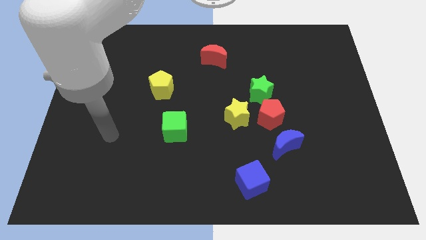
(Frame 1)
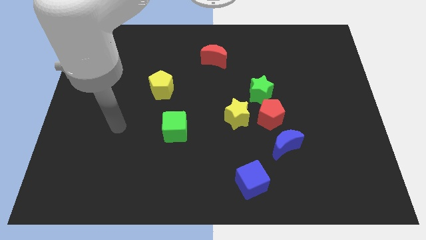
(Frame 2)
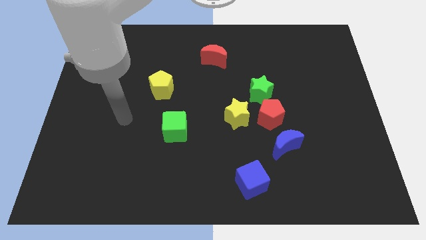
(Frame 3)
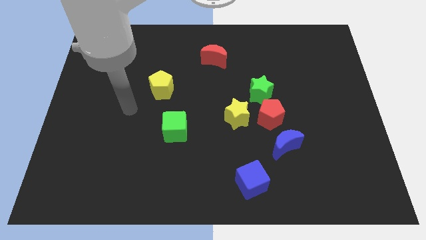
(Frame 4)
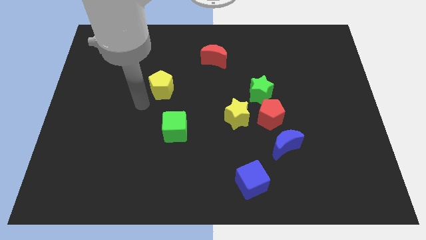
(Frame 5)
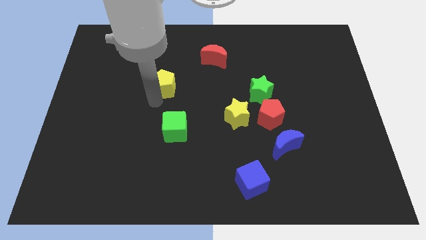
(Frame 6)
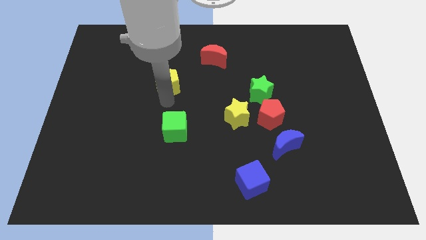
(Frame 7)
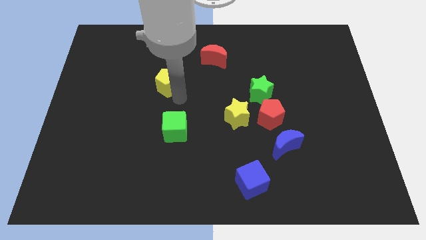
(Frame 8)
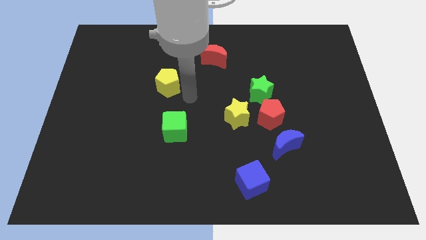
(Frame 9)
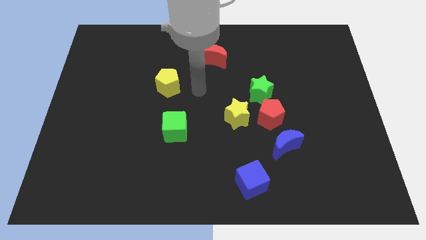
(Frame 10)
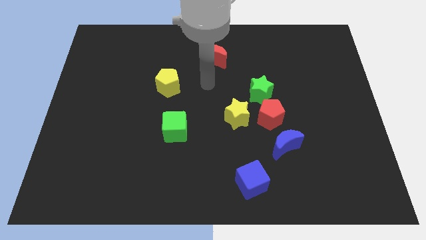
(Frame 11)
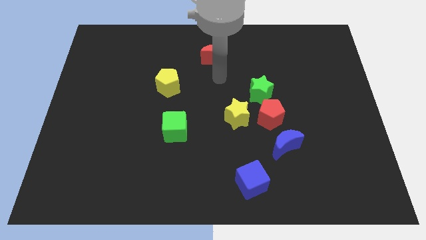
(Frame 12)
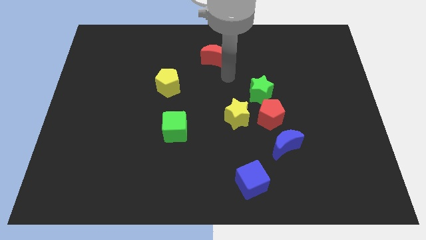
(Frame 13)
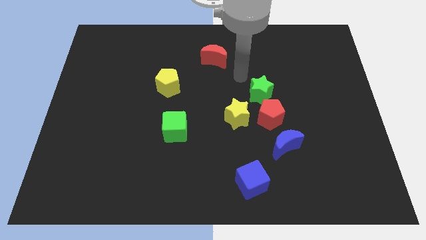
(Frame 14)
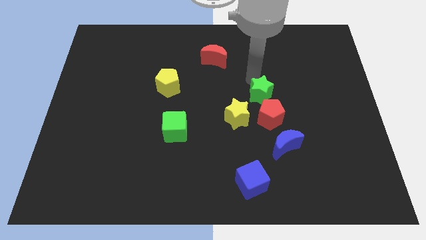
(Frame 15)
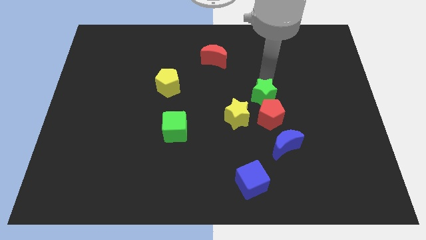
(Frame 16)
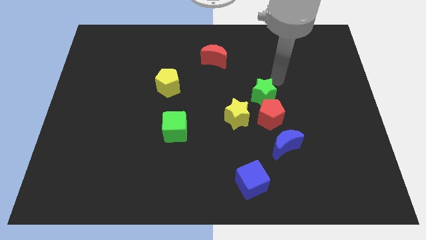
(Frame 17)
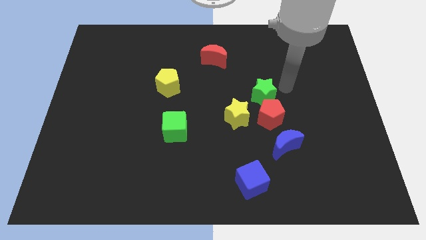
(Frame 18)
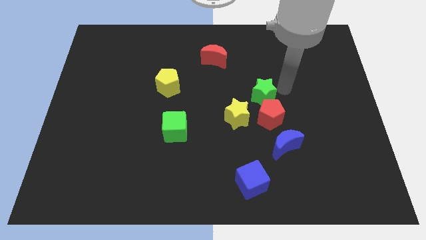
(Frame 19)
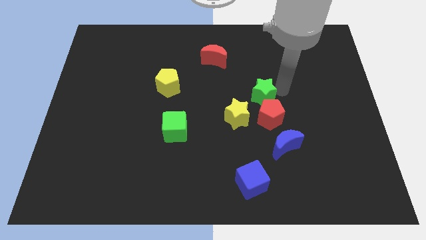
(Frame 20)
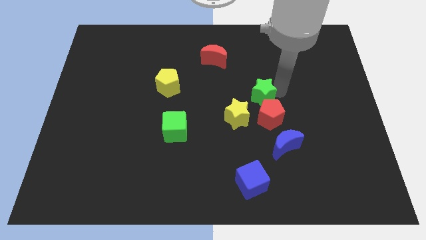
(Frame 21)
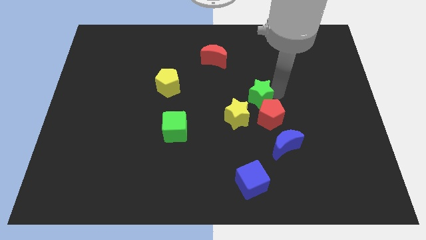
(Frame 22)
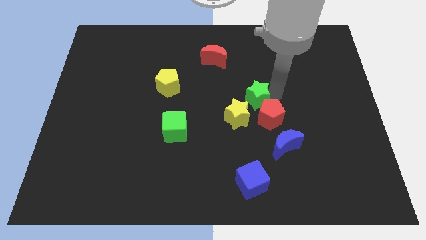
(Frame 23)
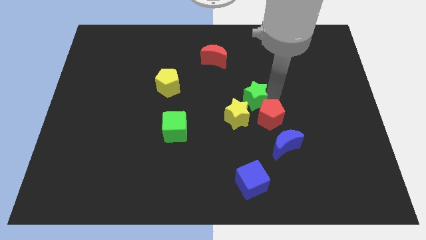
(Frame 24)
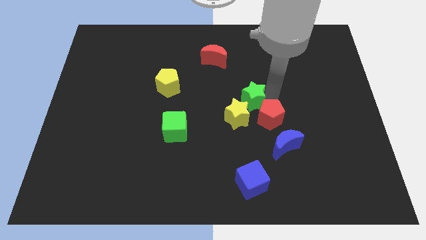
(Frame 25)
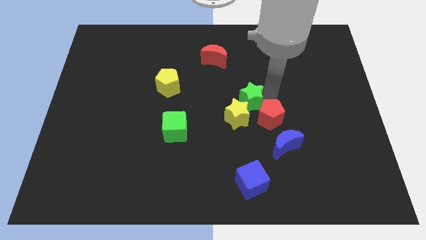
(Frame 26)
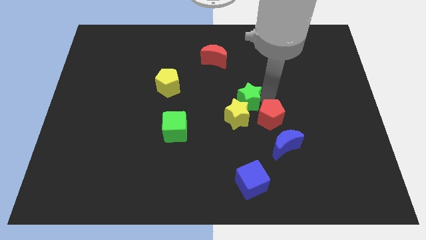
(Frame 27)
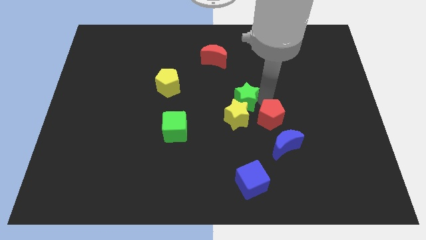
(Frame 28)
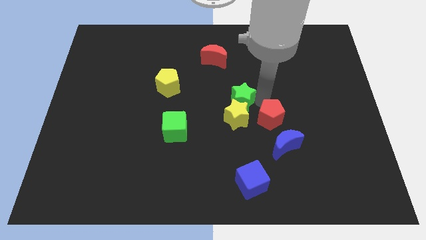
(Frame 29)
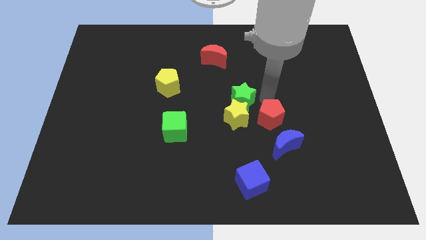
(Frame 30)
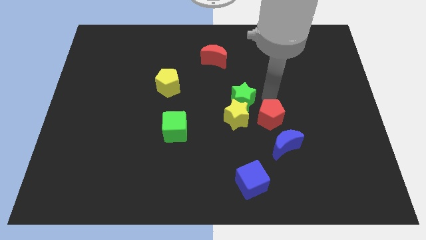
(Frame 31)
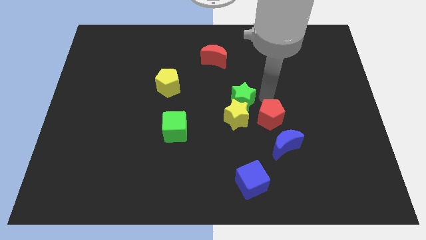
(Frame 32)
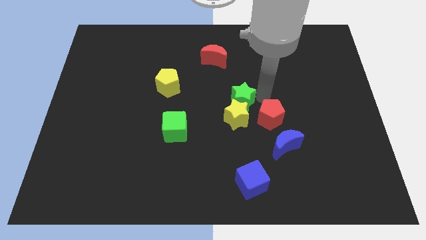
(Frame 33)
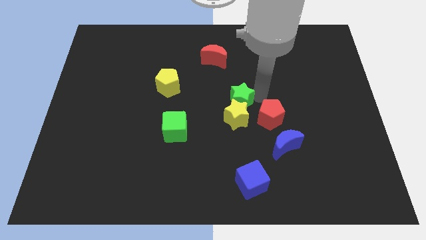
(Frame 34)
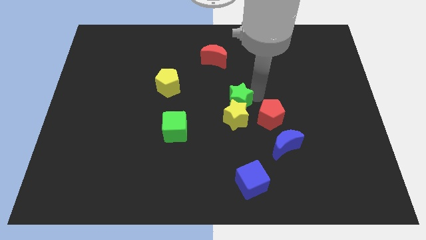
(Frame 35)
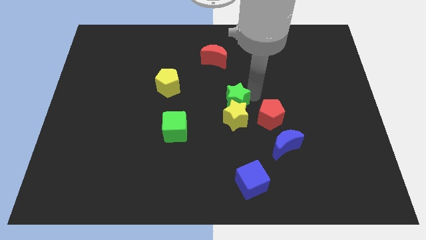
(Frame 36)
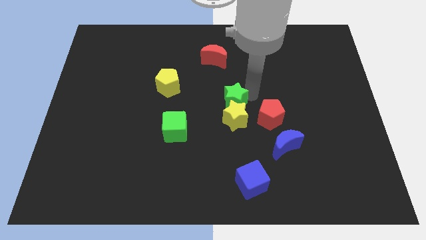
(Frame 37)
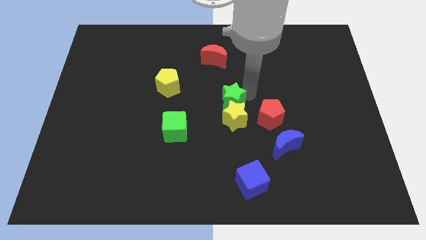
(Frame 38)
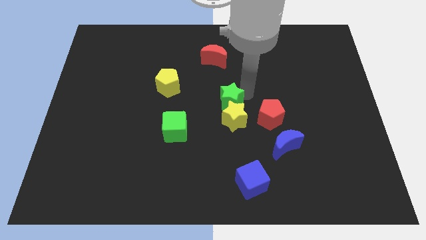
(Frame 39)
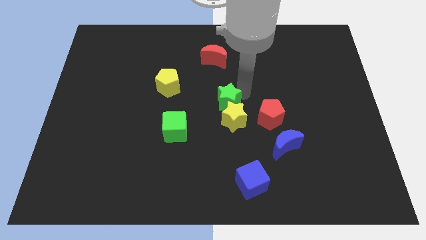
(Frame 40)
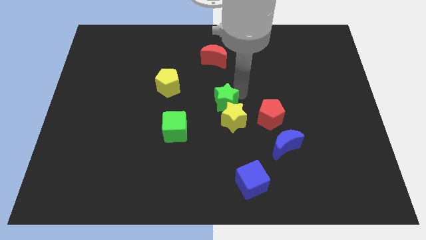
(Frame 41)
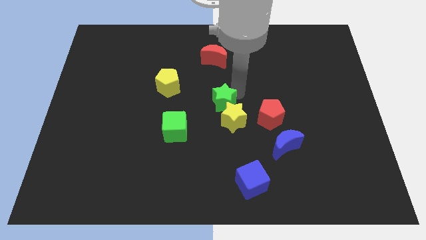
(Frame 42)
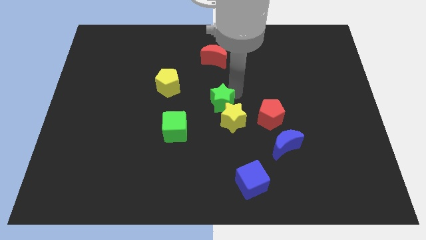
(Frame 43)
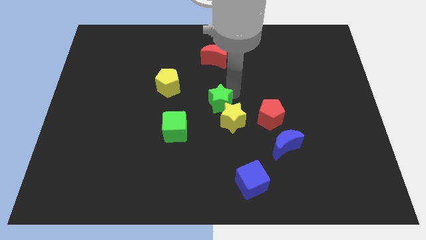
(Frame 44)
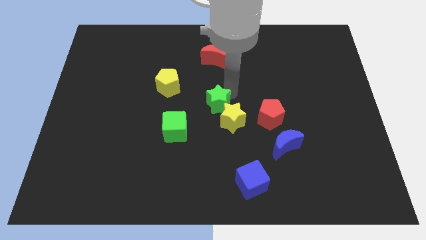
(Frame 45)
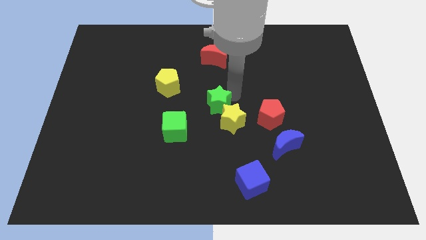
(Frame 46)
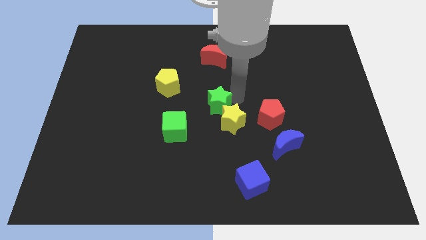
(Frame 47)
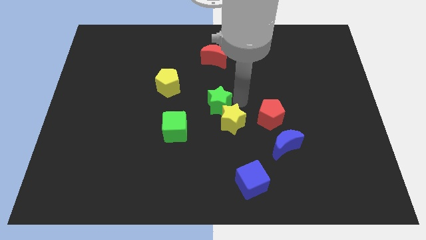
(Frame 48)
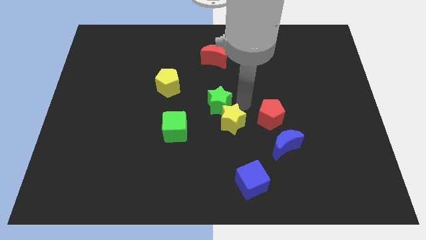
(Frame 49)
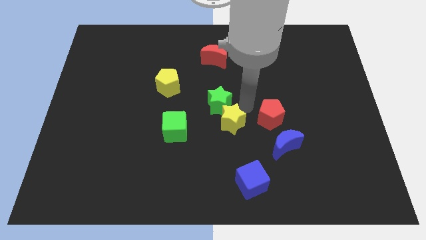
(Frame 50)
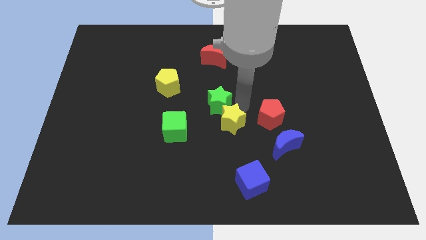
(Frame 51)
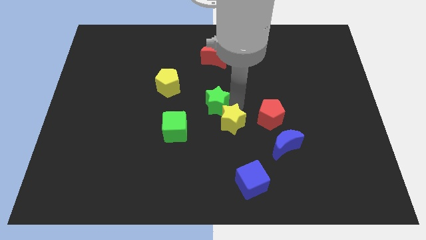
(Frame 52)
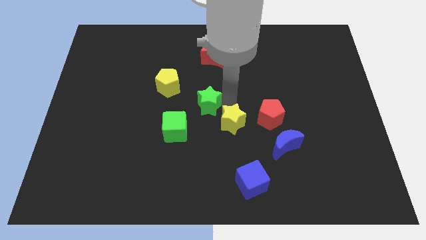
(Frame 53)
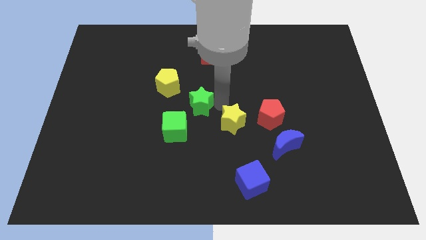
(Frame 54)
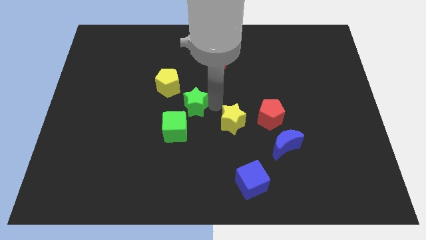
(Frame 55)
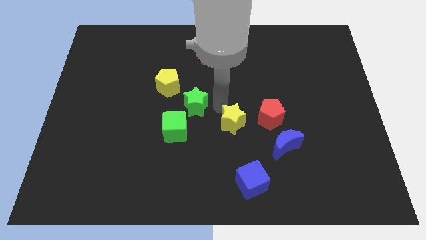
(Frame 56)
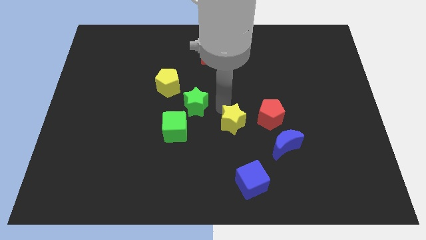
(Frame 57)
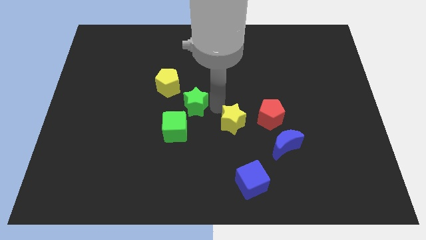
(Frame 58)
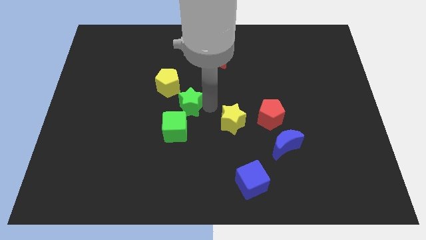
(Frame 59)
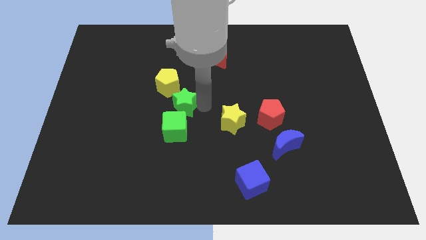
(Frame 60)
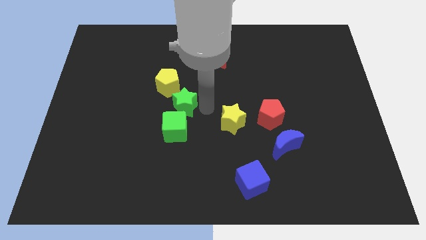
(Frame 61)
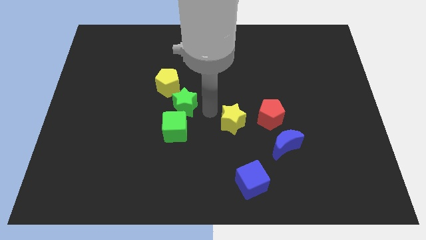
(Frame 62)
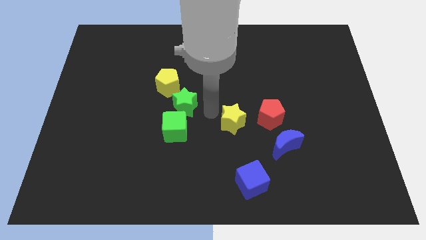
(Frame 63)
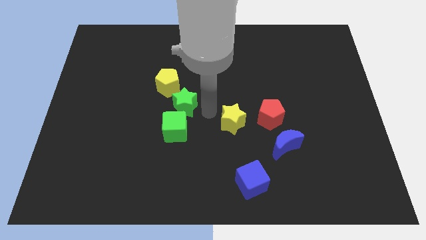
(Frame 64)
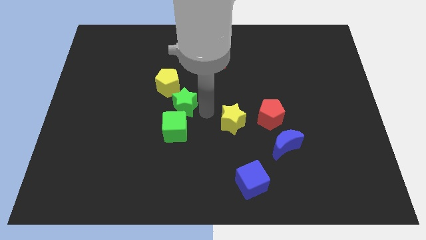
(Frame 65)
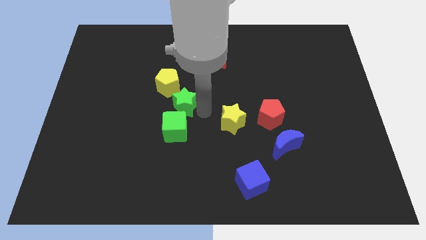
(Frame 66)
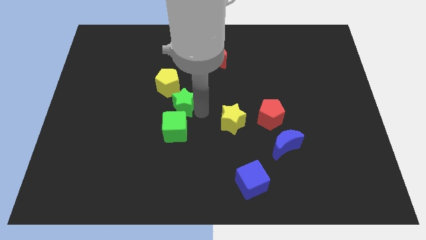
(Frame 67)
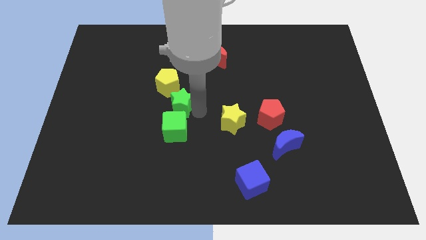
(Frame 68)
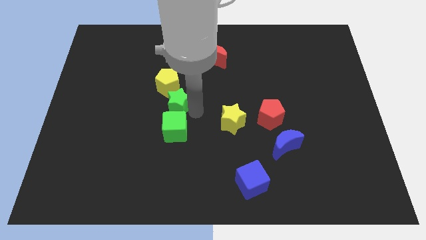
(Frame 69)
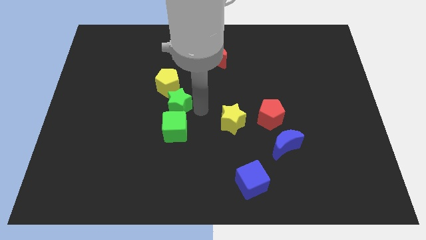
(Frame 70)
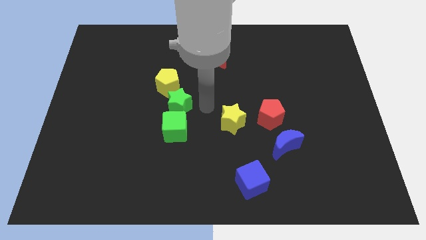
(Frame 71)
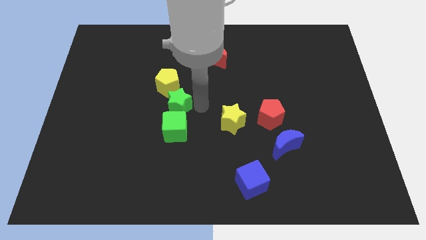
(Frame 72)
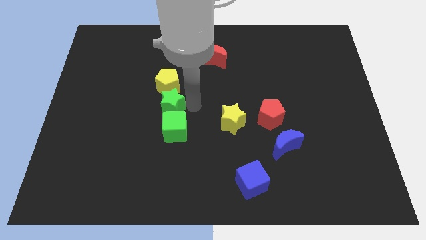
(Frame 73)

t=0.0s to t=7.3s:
move the green star to the left

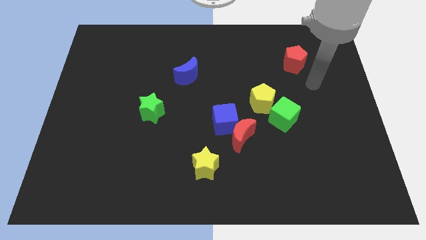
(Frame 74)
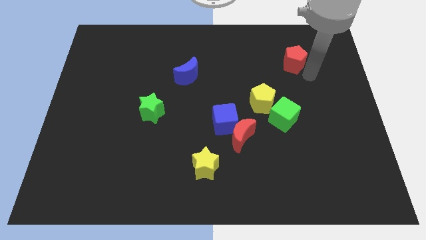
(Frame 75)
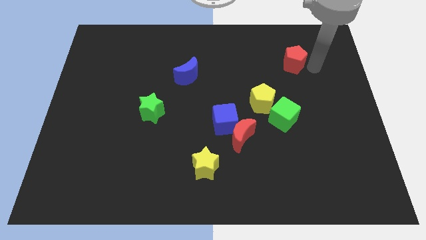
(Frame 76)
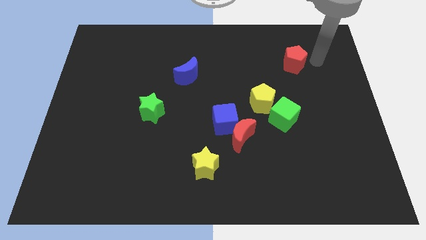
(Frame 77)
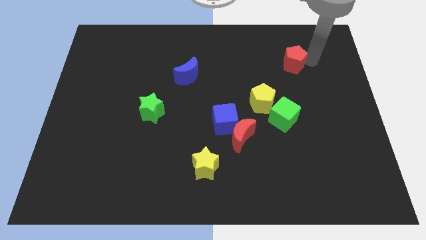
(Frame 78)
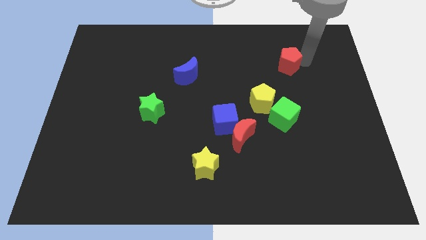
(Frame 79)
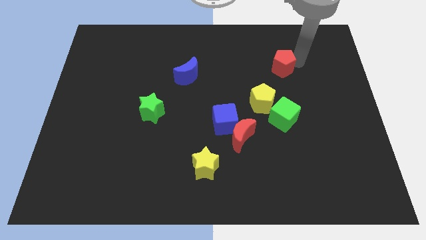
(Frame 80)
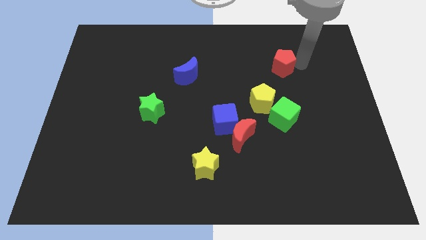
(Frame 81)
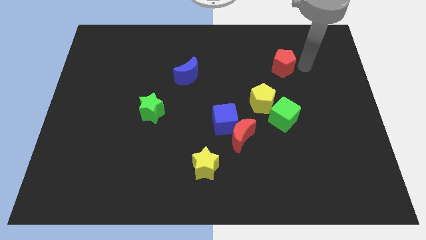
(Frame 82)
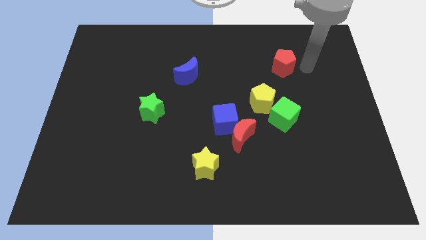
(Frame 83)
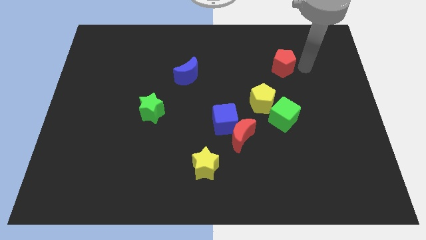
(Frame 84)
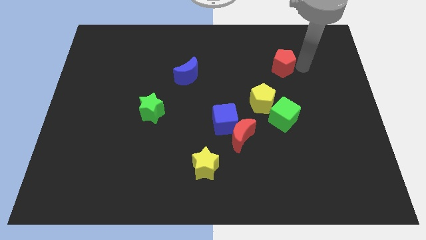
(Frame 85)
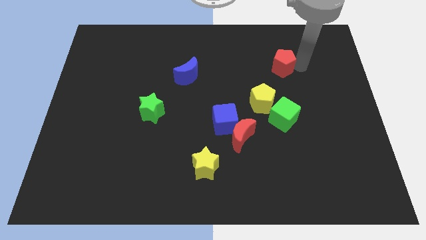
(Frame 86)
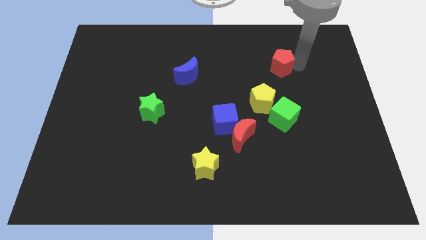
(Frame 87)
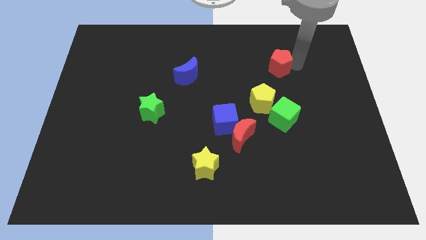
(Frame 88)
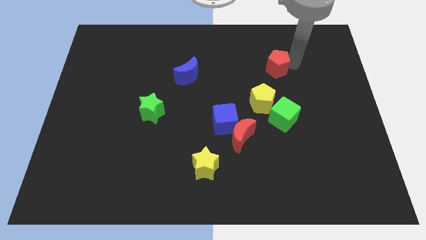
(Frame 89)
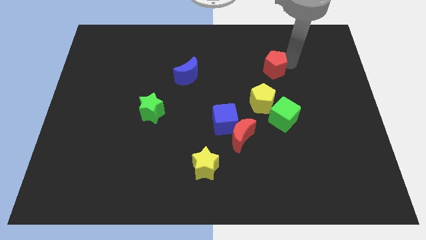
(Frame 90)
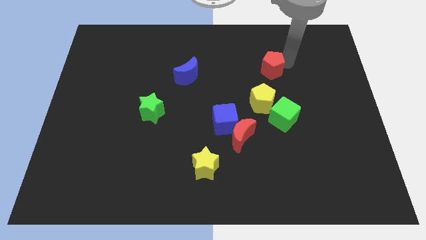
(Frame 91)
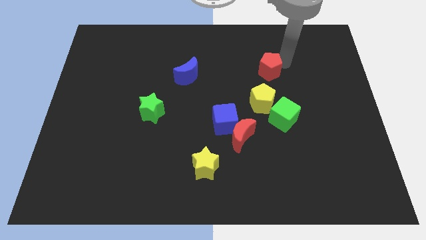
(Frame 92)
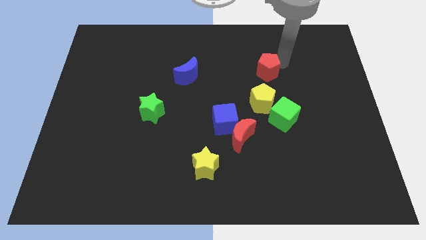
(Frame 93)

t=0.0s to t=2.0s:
slightly move the red pentagon to the left
